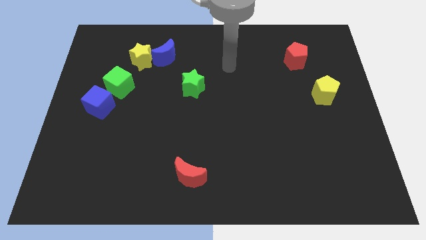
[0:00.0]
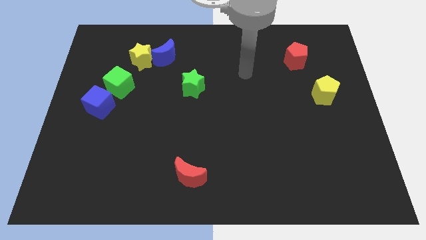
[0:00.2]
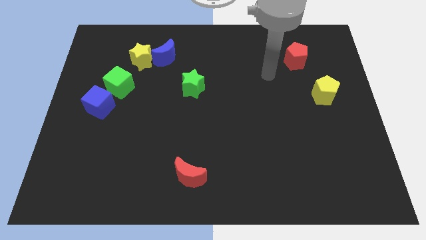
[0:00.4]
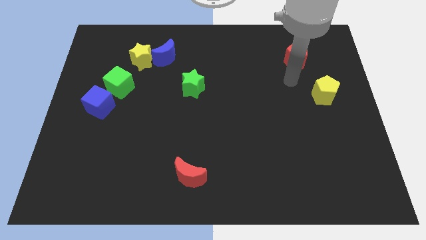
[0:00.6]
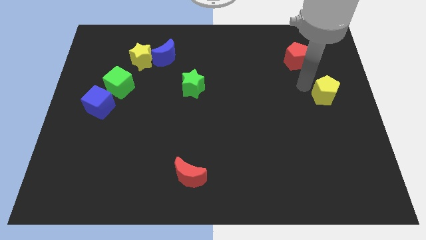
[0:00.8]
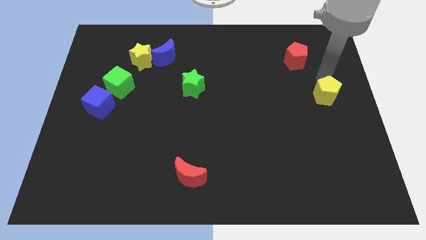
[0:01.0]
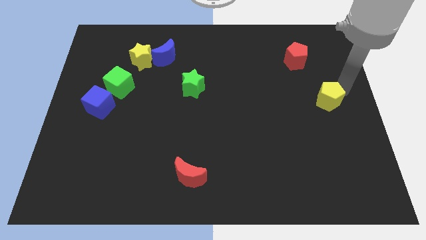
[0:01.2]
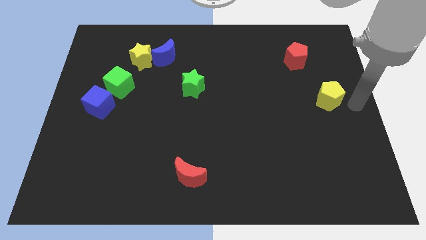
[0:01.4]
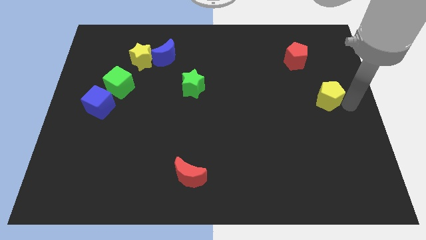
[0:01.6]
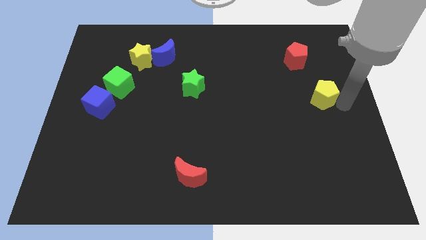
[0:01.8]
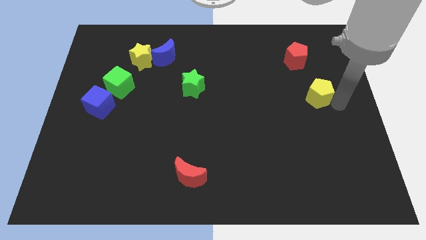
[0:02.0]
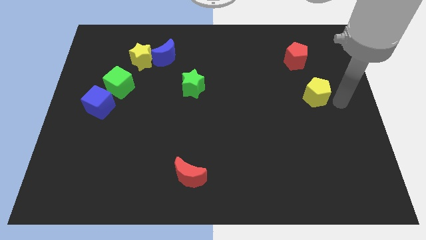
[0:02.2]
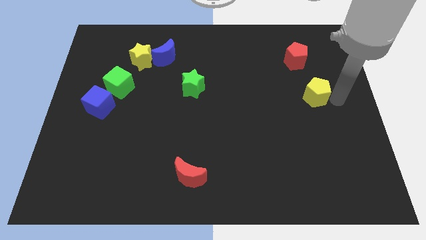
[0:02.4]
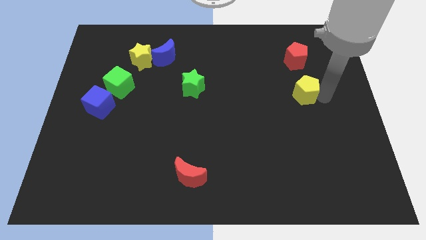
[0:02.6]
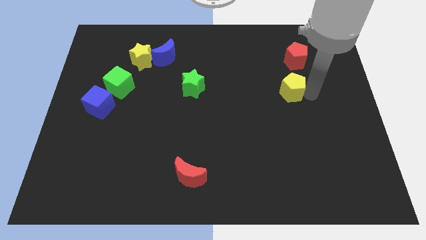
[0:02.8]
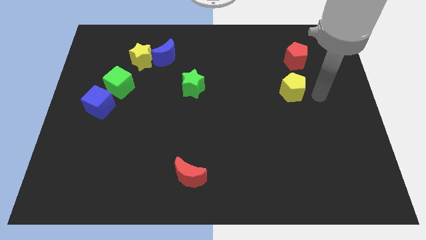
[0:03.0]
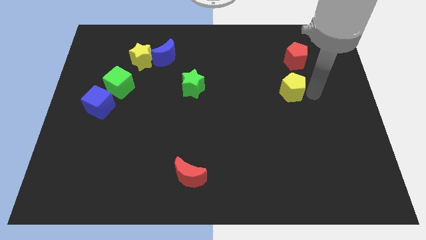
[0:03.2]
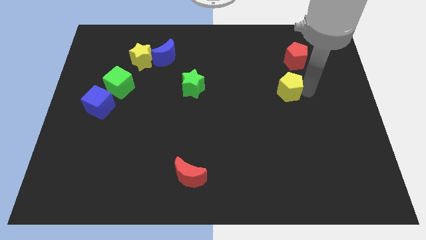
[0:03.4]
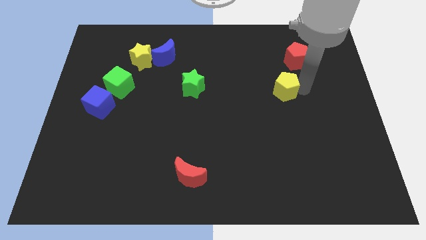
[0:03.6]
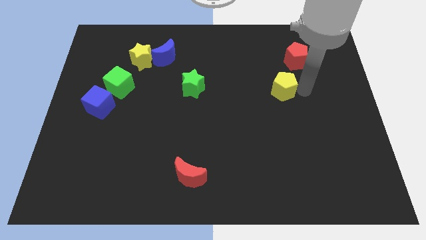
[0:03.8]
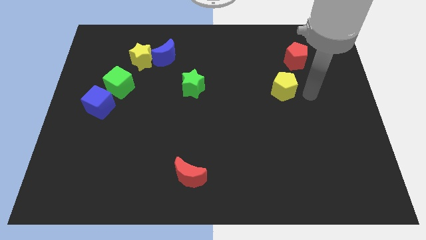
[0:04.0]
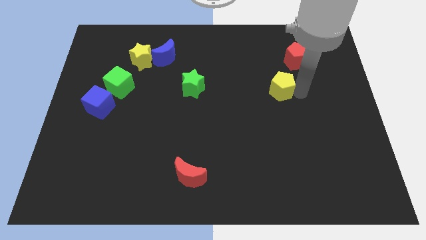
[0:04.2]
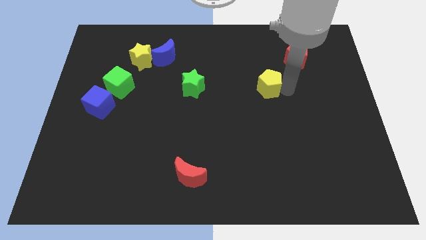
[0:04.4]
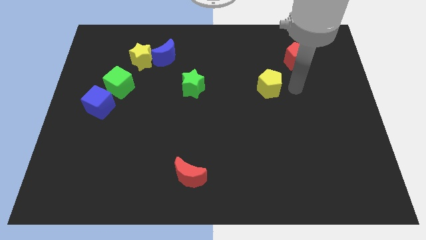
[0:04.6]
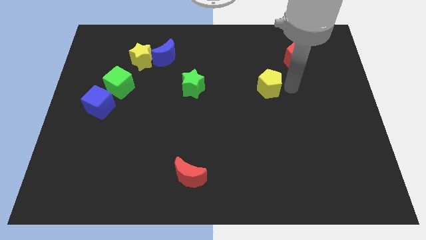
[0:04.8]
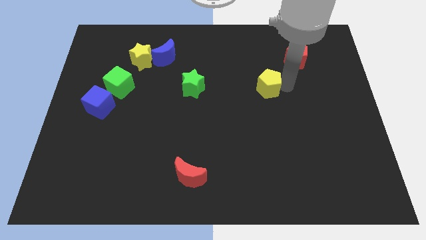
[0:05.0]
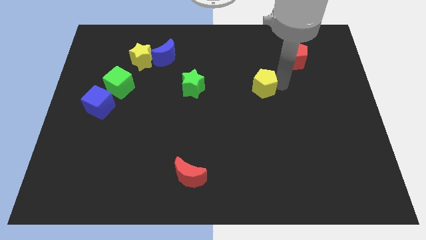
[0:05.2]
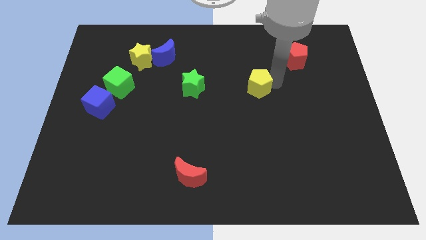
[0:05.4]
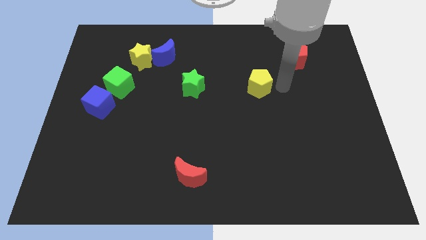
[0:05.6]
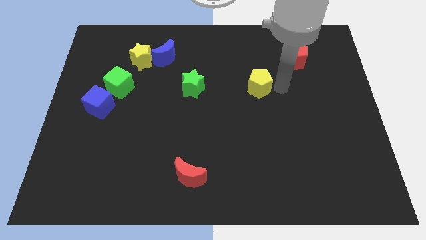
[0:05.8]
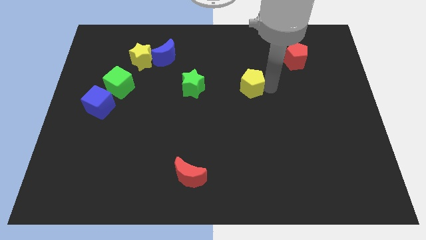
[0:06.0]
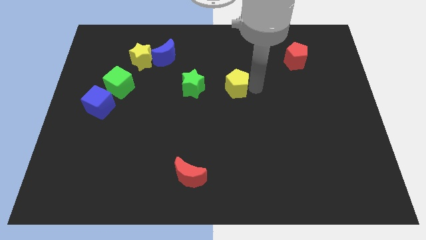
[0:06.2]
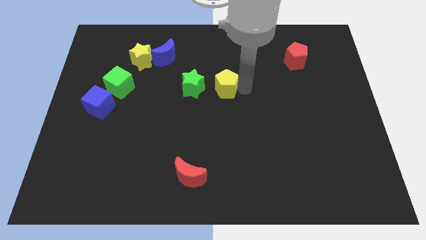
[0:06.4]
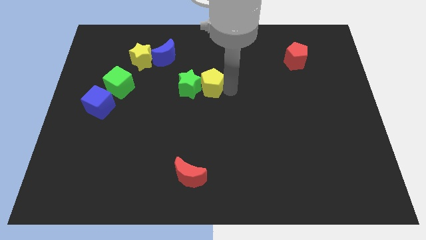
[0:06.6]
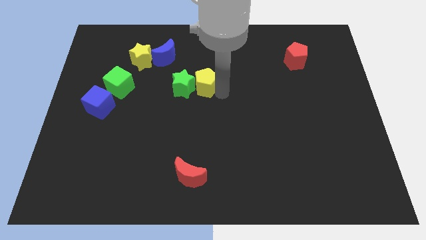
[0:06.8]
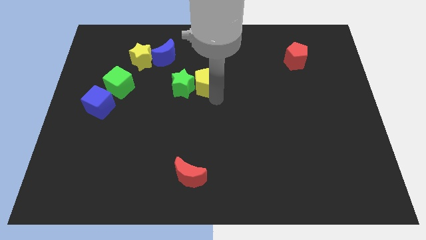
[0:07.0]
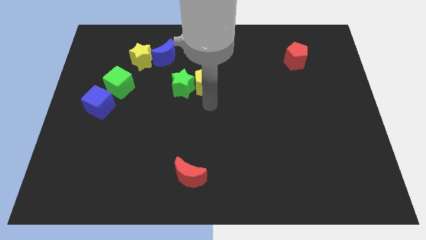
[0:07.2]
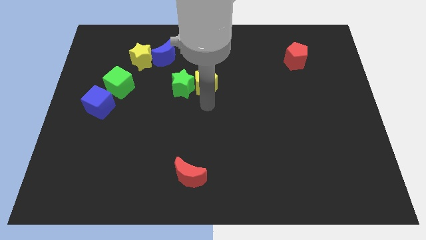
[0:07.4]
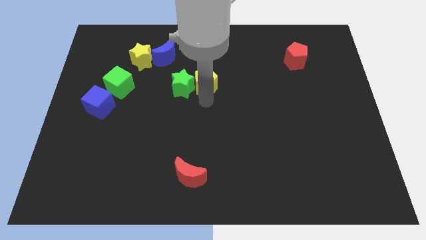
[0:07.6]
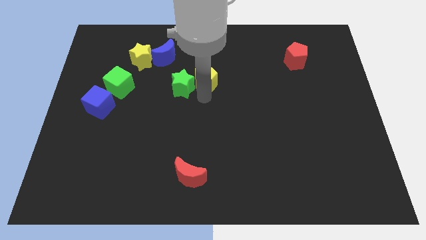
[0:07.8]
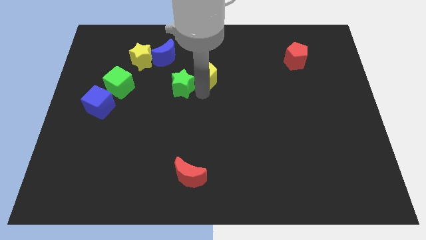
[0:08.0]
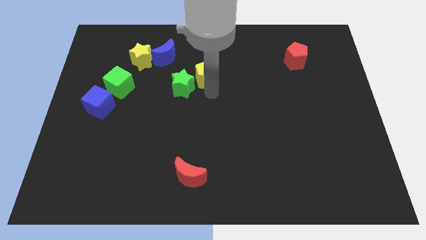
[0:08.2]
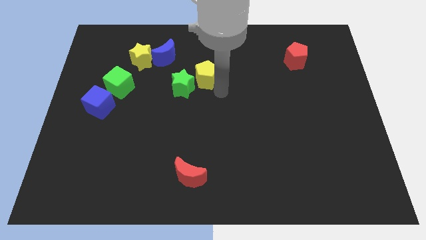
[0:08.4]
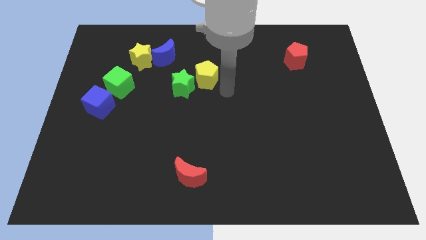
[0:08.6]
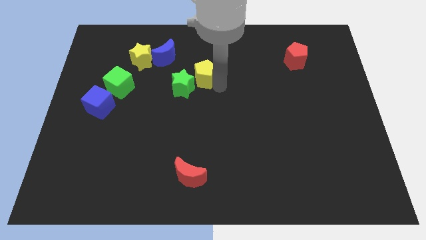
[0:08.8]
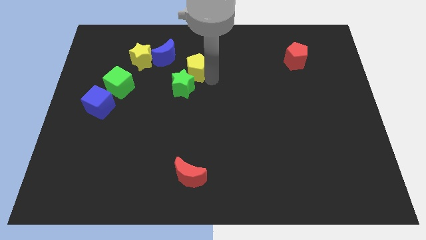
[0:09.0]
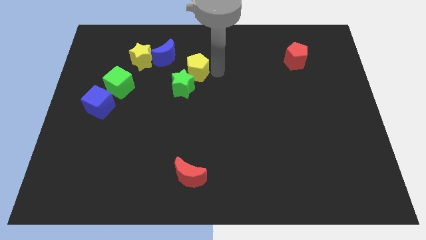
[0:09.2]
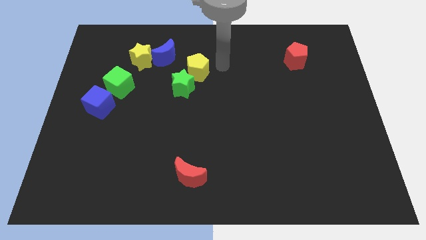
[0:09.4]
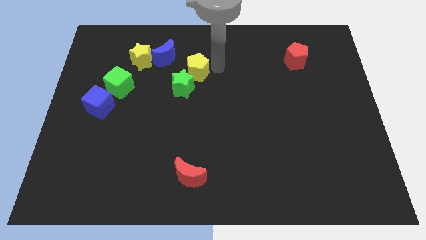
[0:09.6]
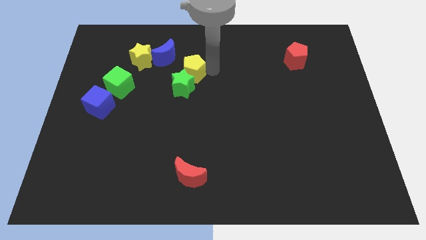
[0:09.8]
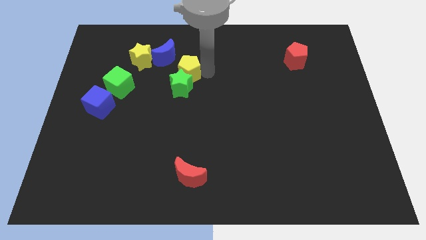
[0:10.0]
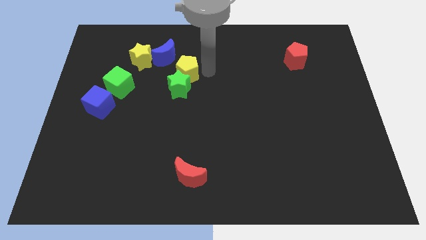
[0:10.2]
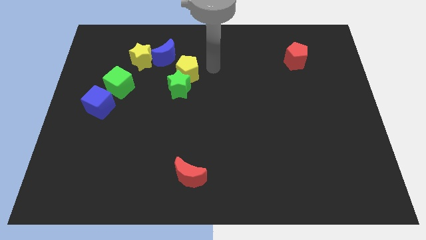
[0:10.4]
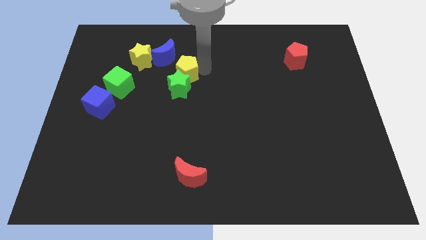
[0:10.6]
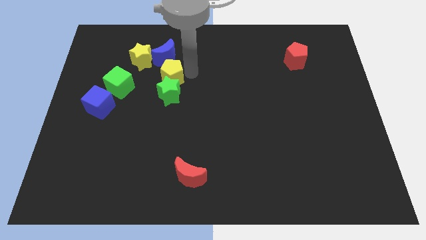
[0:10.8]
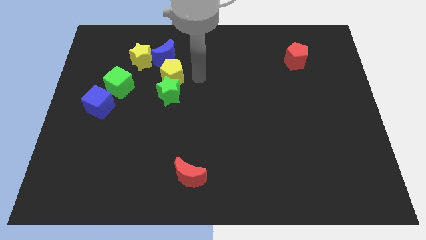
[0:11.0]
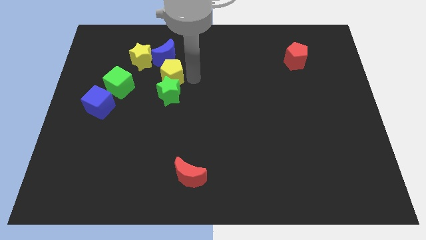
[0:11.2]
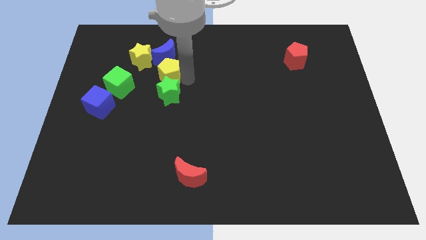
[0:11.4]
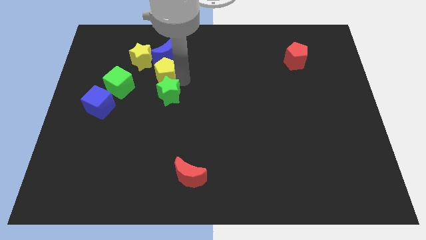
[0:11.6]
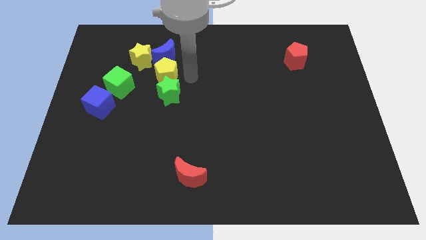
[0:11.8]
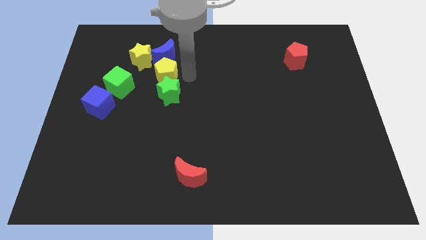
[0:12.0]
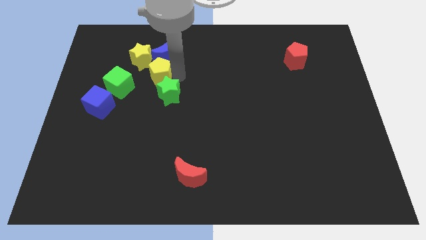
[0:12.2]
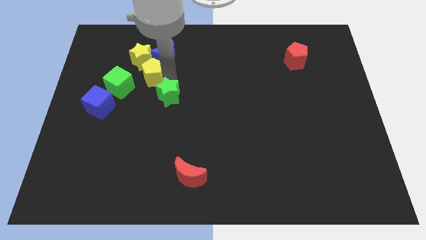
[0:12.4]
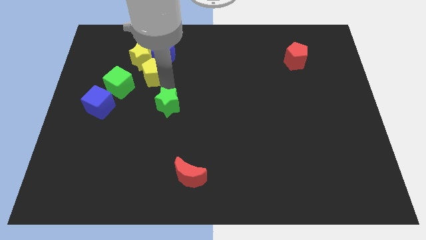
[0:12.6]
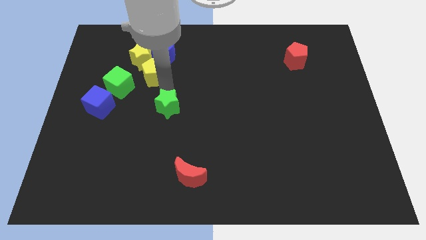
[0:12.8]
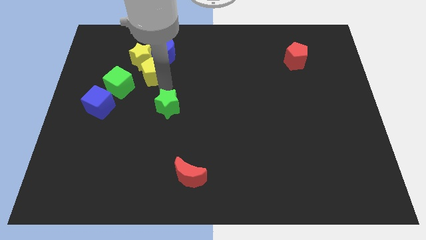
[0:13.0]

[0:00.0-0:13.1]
move the yellow pentagon next to the yellow star
